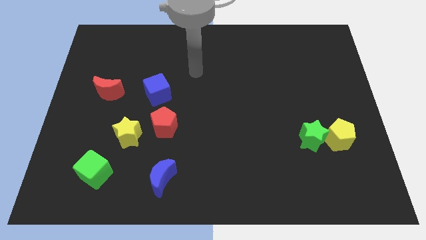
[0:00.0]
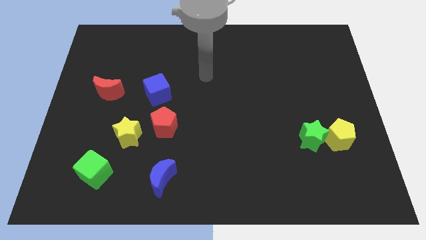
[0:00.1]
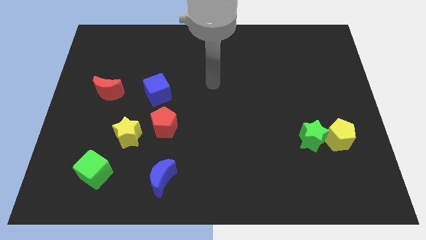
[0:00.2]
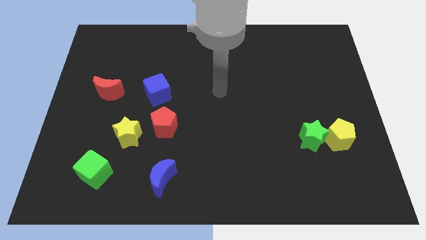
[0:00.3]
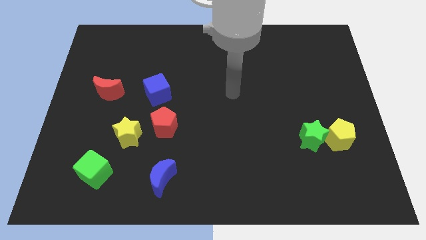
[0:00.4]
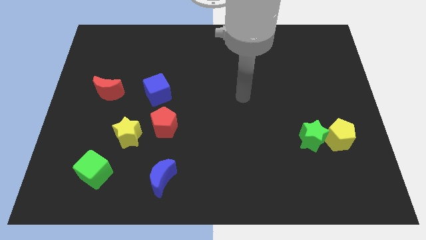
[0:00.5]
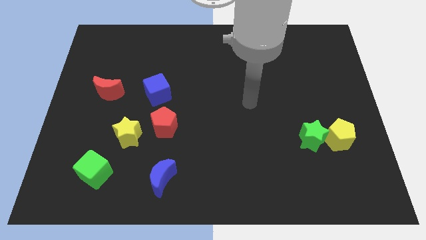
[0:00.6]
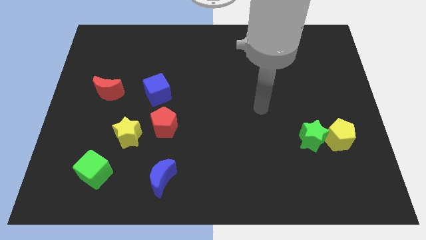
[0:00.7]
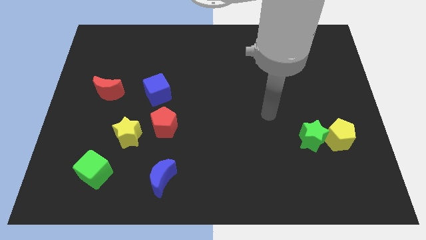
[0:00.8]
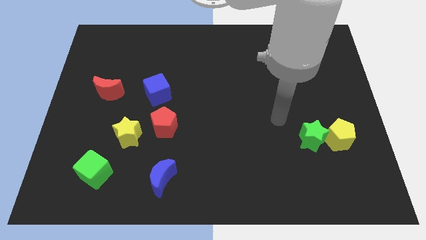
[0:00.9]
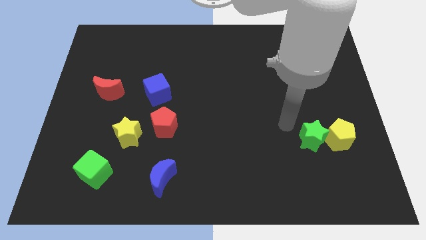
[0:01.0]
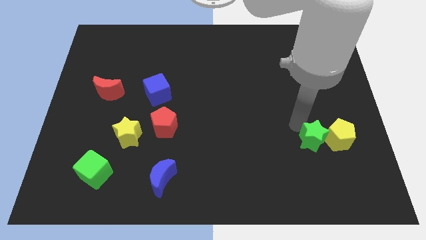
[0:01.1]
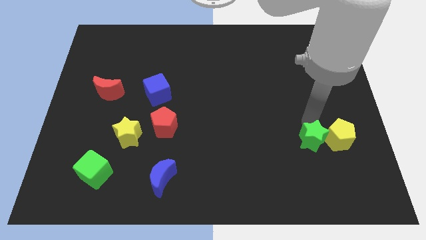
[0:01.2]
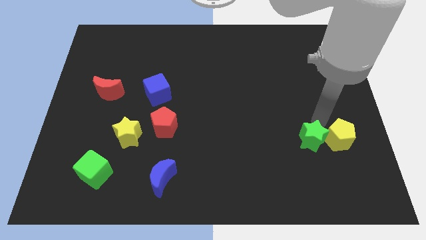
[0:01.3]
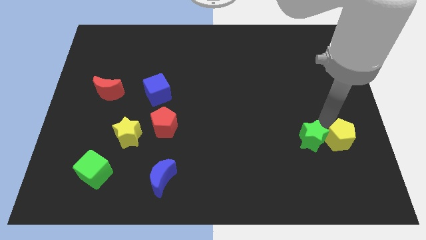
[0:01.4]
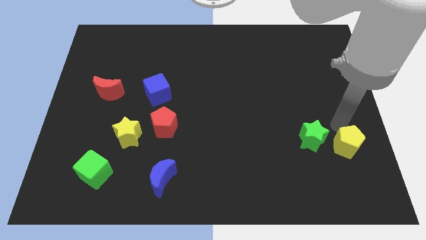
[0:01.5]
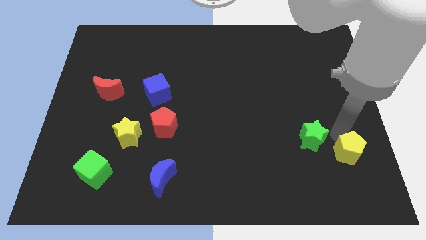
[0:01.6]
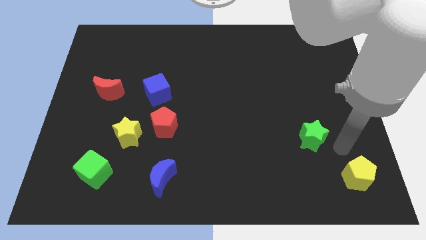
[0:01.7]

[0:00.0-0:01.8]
separate the green star from the yellow pentagon

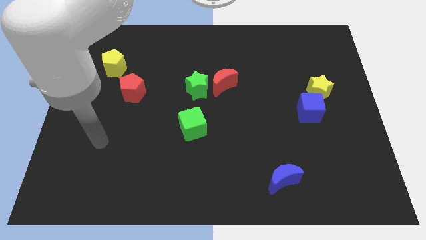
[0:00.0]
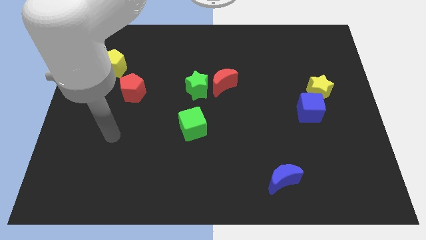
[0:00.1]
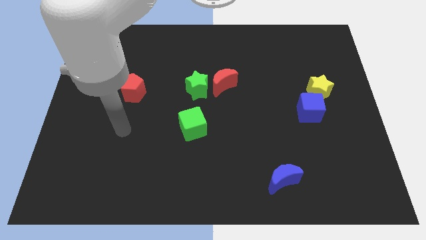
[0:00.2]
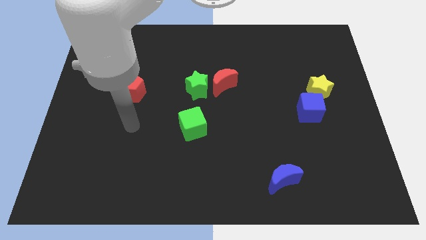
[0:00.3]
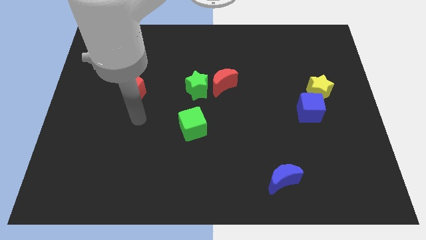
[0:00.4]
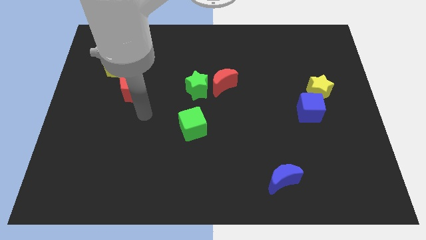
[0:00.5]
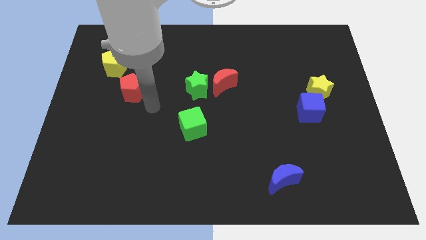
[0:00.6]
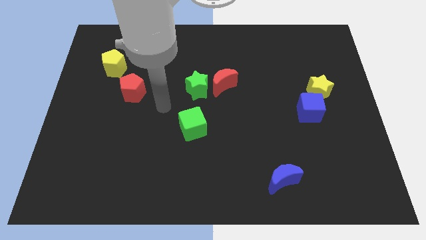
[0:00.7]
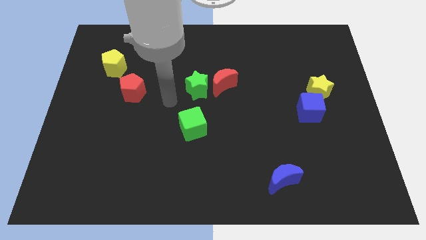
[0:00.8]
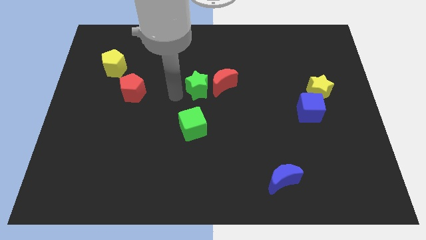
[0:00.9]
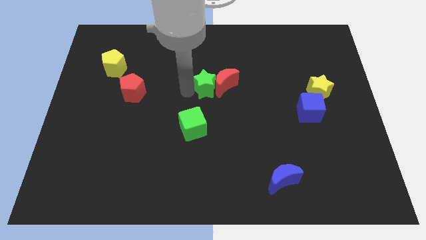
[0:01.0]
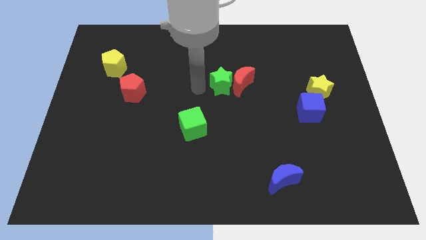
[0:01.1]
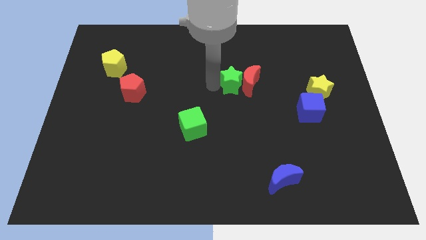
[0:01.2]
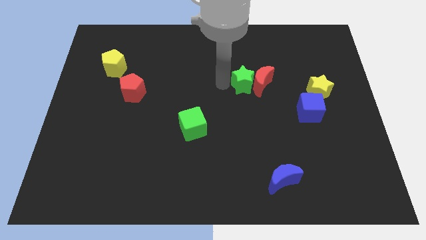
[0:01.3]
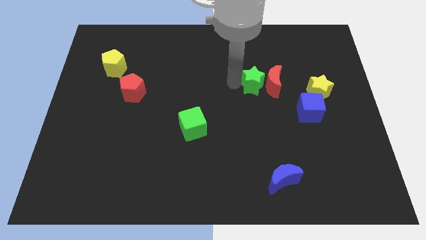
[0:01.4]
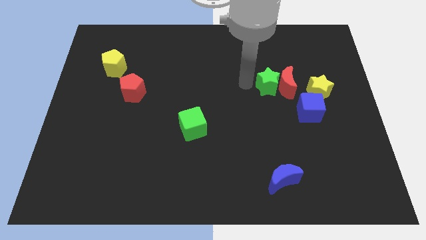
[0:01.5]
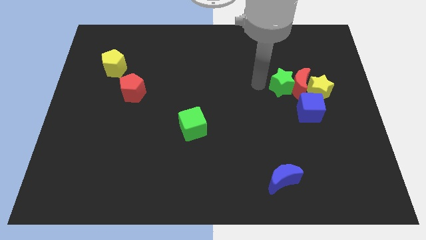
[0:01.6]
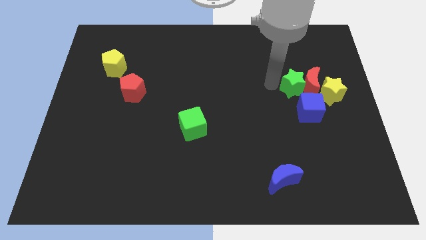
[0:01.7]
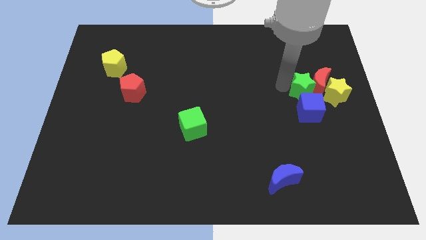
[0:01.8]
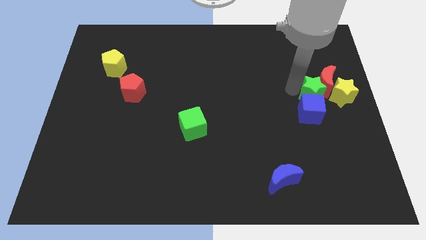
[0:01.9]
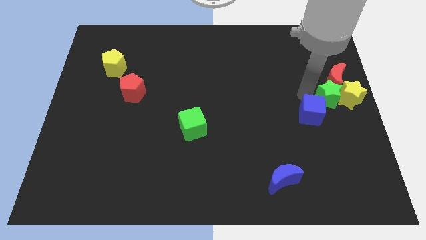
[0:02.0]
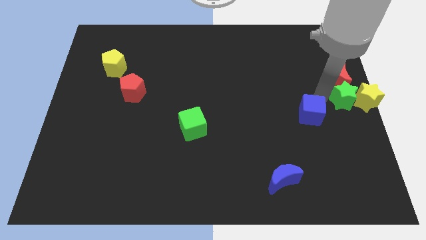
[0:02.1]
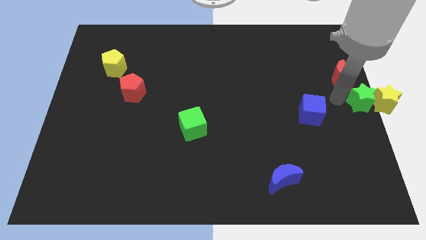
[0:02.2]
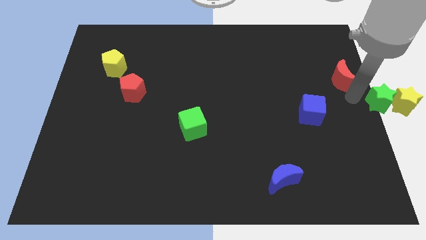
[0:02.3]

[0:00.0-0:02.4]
move the red moon away from the green star

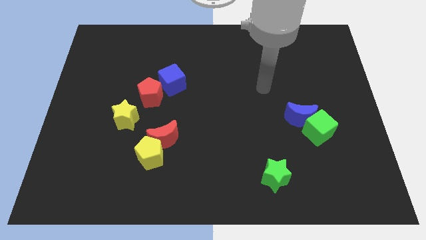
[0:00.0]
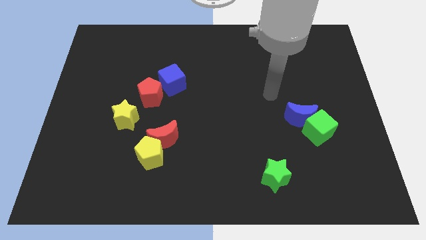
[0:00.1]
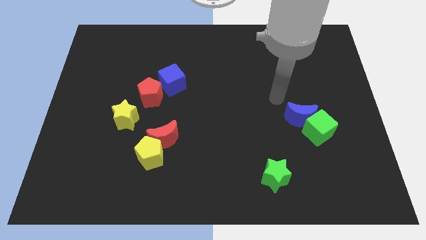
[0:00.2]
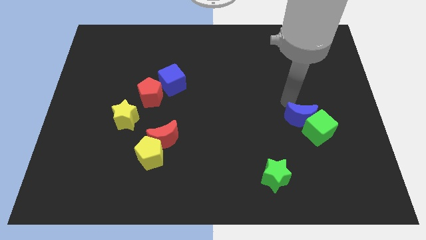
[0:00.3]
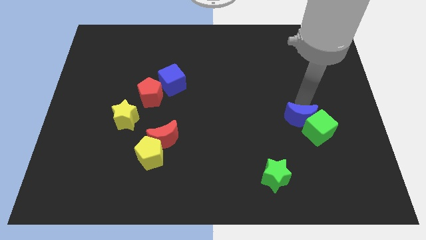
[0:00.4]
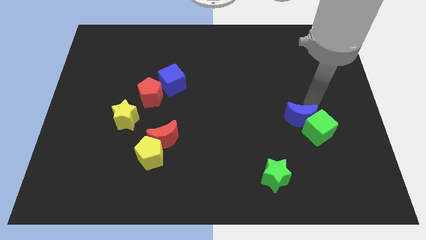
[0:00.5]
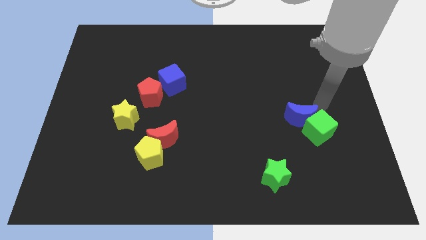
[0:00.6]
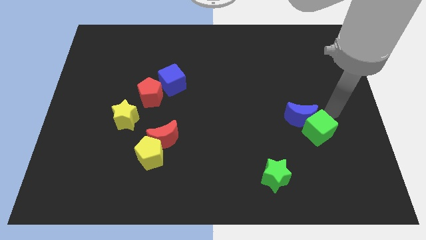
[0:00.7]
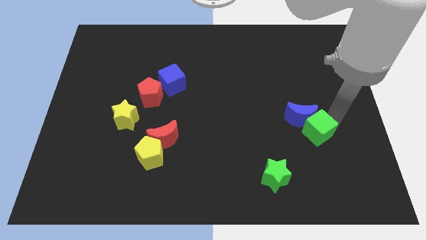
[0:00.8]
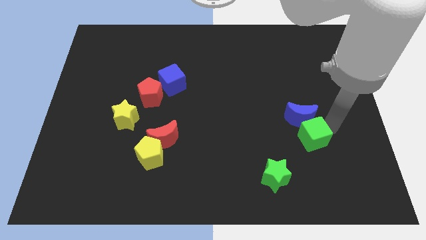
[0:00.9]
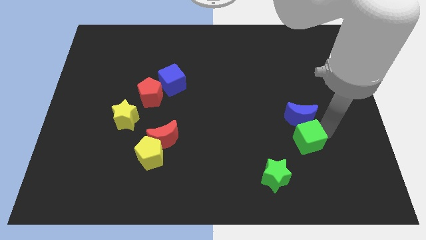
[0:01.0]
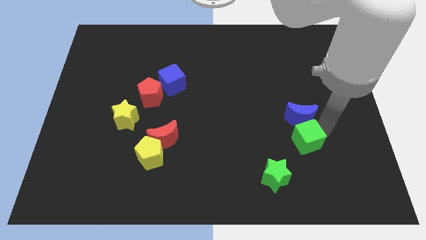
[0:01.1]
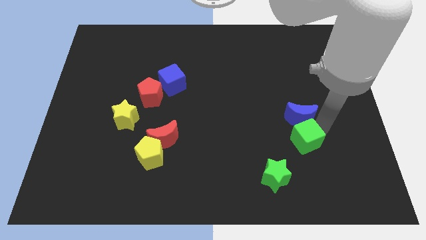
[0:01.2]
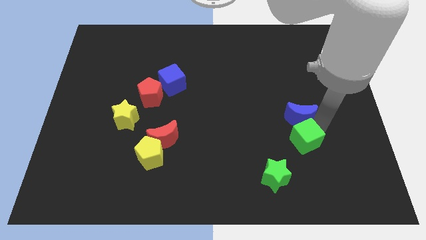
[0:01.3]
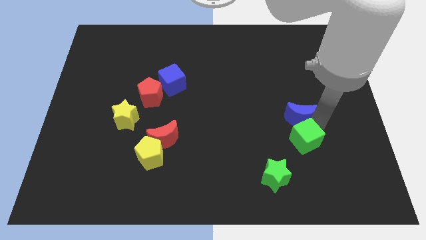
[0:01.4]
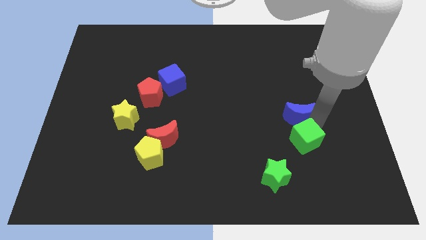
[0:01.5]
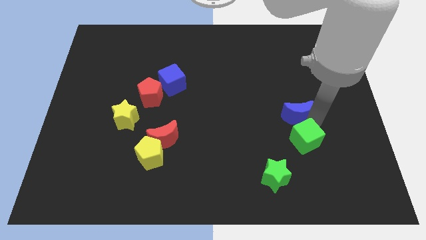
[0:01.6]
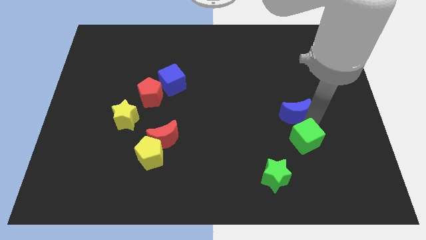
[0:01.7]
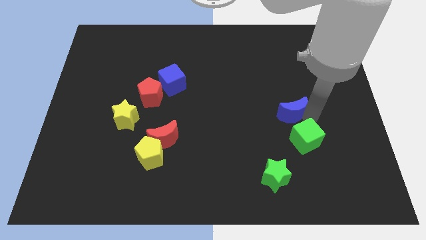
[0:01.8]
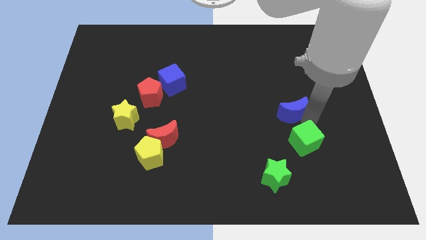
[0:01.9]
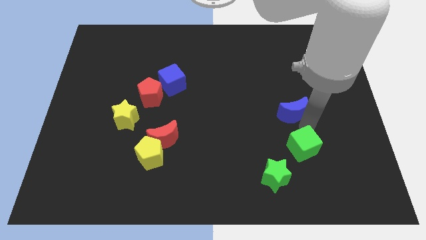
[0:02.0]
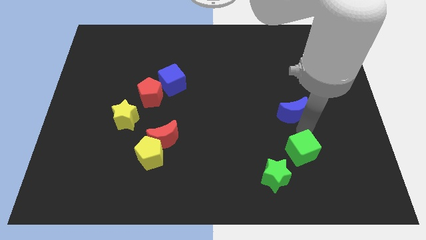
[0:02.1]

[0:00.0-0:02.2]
pull the blue moon apart from the green cube

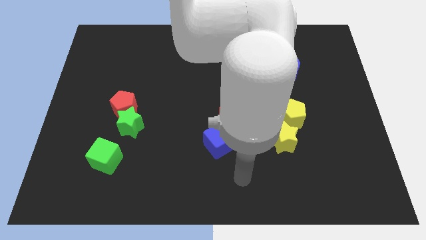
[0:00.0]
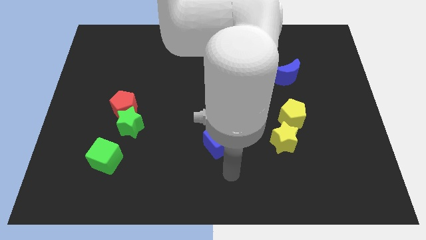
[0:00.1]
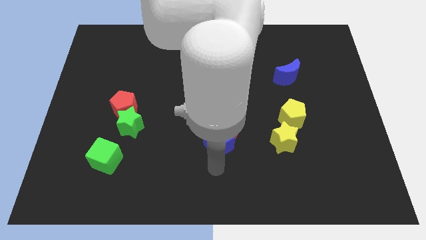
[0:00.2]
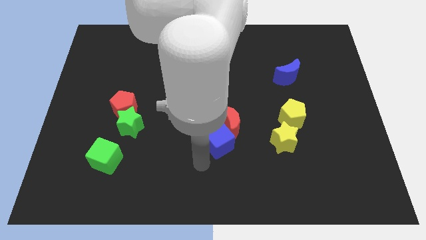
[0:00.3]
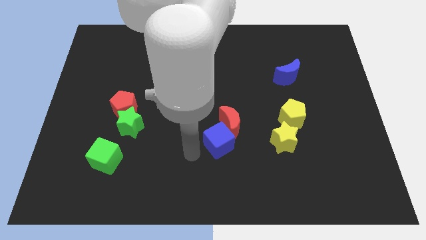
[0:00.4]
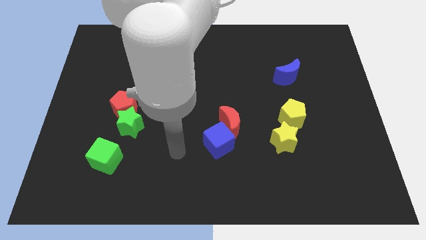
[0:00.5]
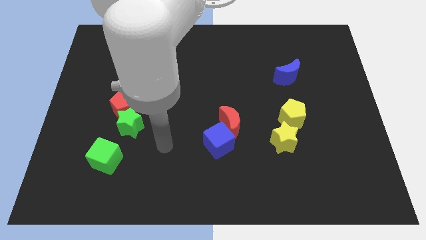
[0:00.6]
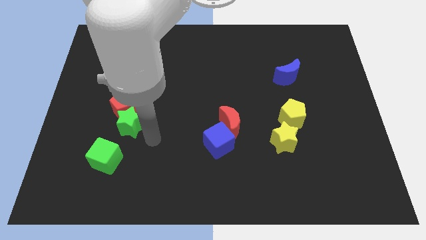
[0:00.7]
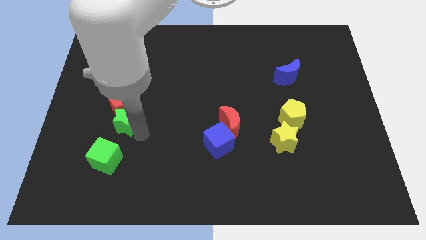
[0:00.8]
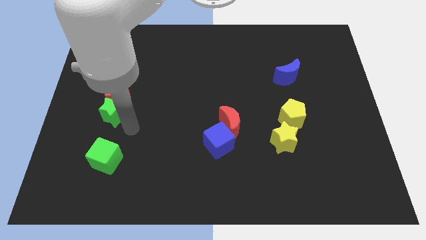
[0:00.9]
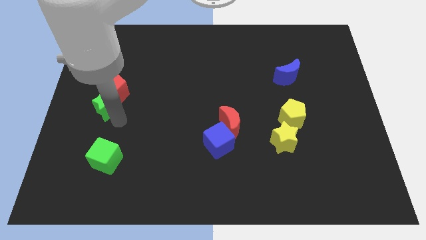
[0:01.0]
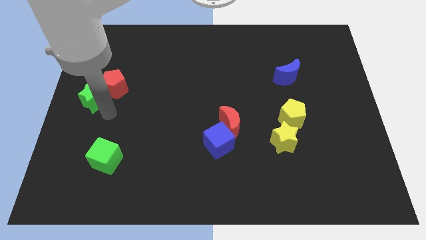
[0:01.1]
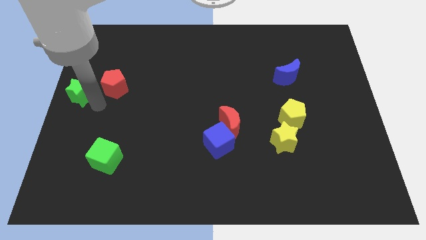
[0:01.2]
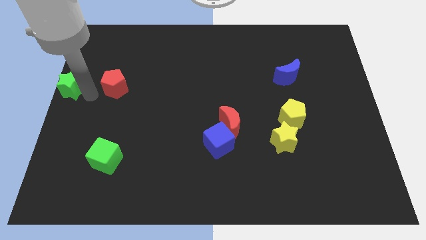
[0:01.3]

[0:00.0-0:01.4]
pull the red pentagon apart from the green star

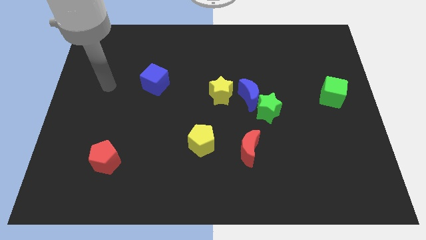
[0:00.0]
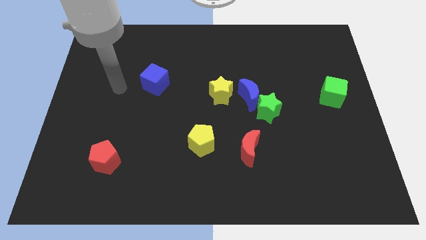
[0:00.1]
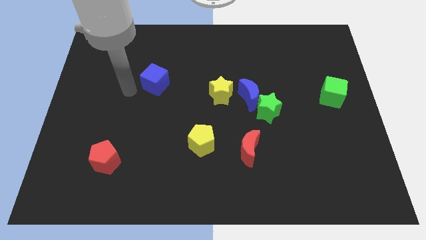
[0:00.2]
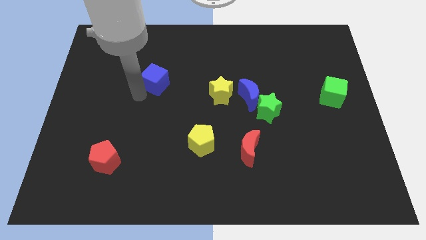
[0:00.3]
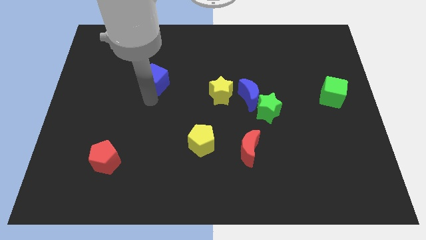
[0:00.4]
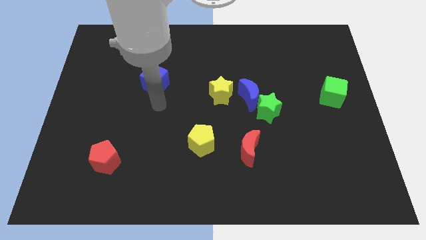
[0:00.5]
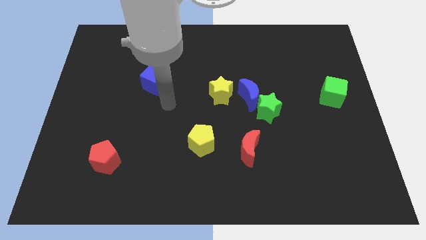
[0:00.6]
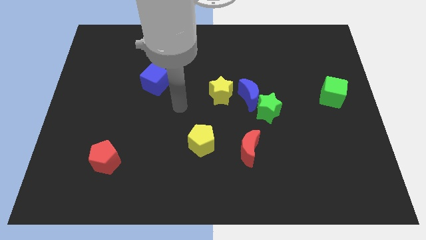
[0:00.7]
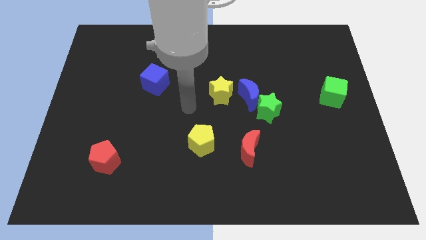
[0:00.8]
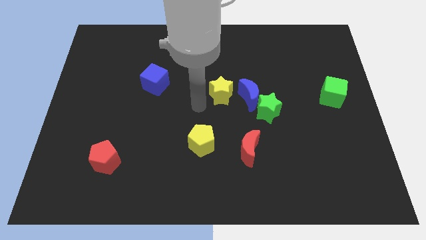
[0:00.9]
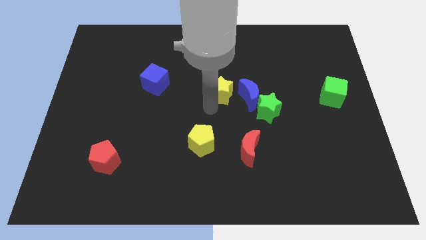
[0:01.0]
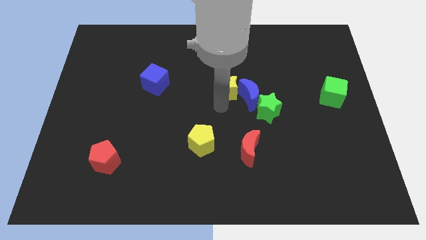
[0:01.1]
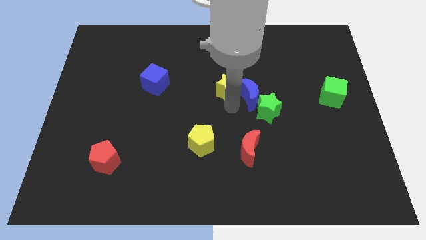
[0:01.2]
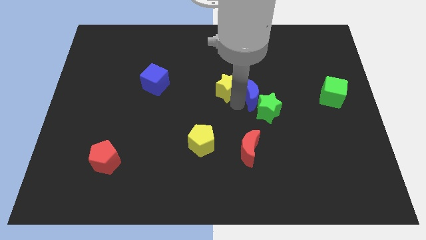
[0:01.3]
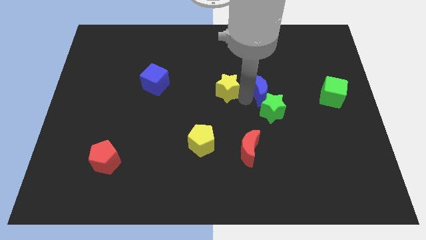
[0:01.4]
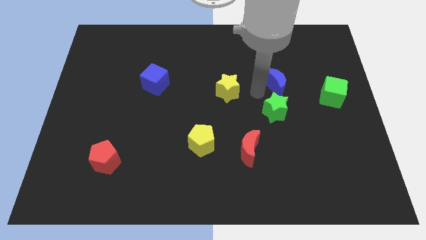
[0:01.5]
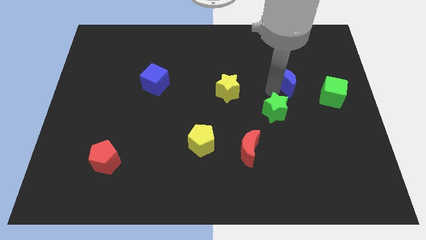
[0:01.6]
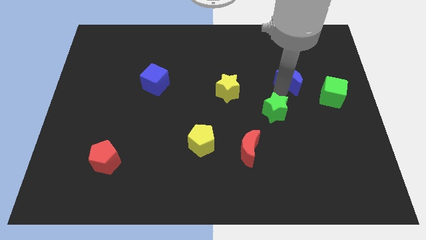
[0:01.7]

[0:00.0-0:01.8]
separate the green star from the blue moon
